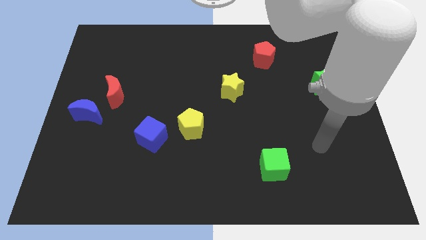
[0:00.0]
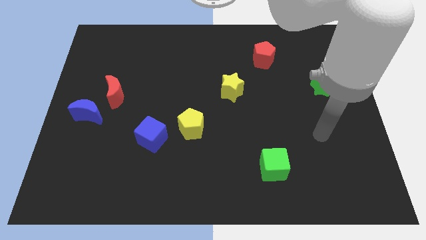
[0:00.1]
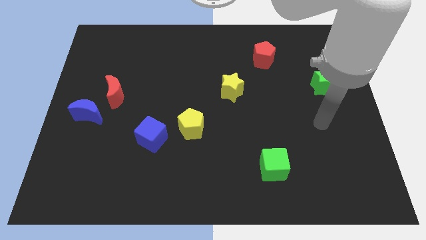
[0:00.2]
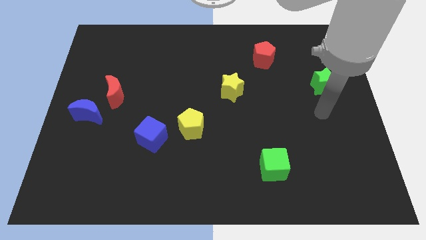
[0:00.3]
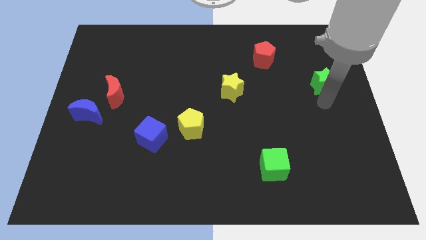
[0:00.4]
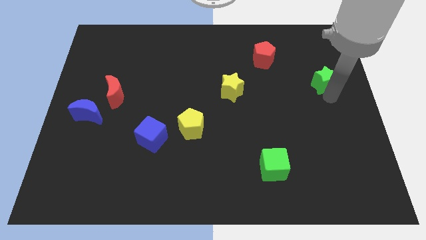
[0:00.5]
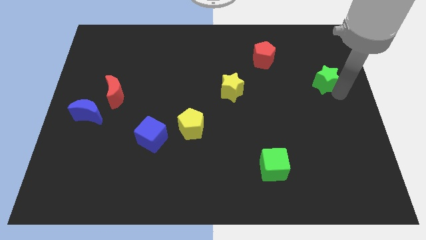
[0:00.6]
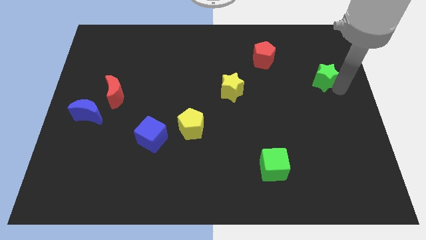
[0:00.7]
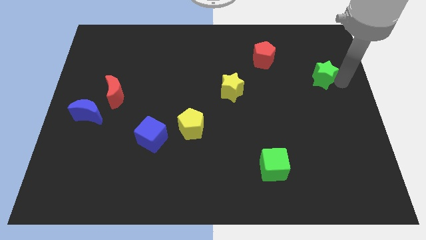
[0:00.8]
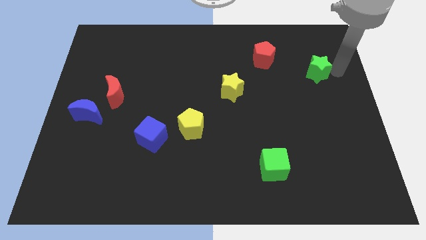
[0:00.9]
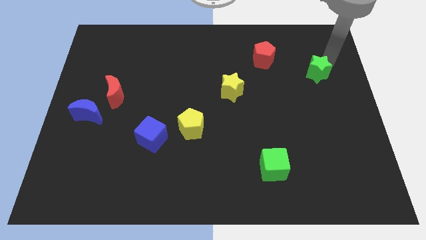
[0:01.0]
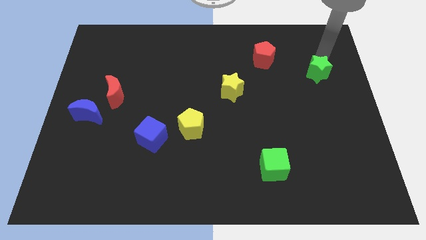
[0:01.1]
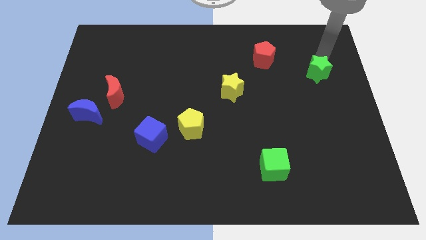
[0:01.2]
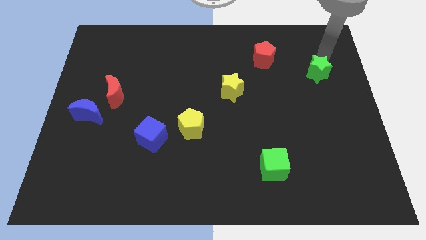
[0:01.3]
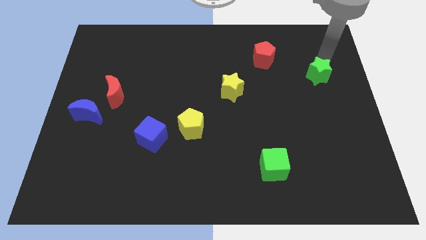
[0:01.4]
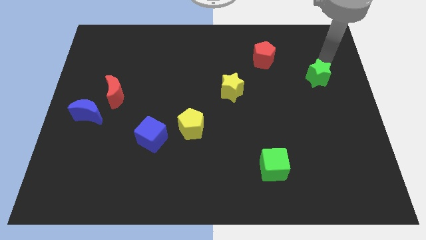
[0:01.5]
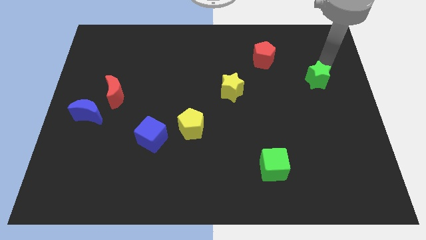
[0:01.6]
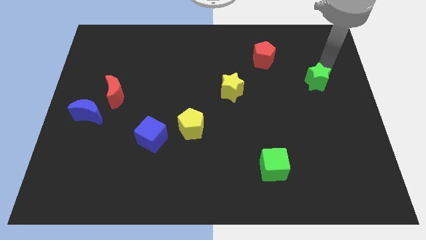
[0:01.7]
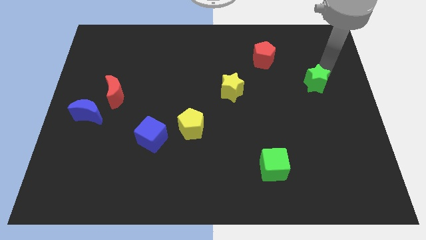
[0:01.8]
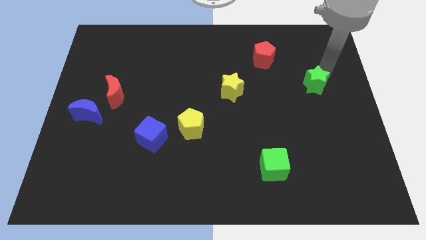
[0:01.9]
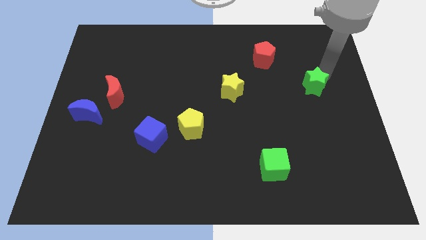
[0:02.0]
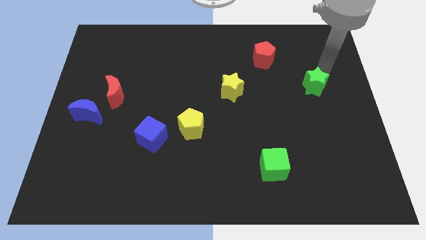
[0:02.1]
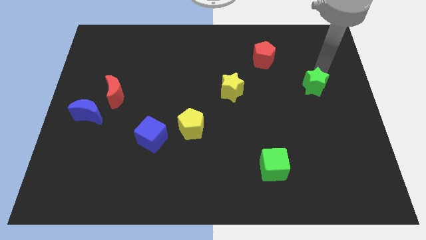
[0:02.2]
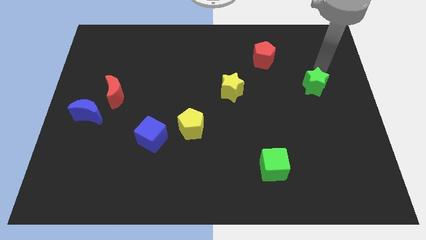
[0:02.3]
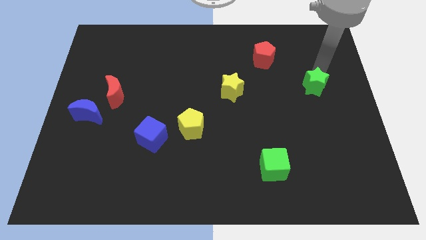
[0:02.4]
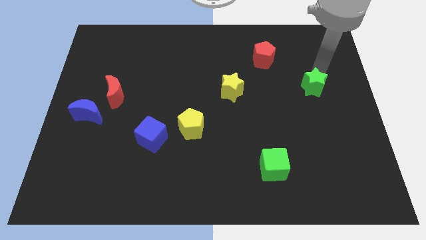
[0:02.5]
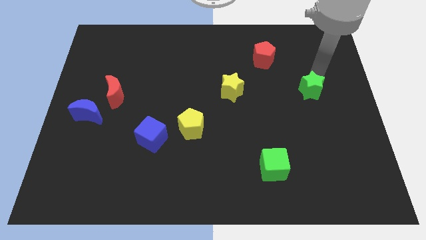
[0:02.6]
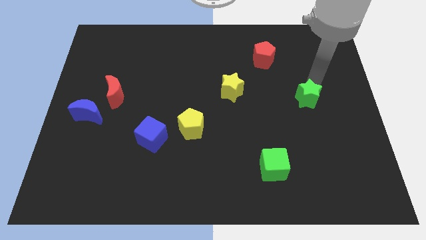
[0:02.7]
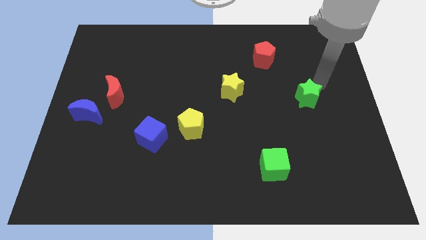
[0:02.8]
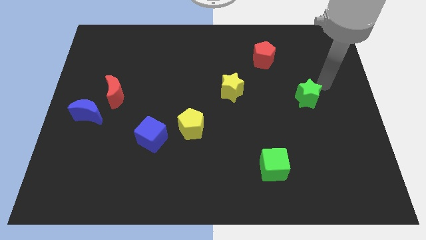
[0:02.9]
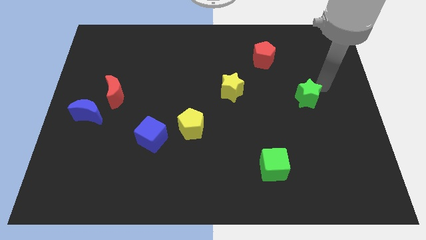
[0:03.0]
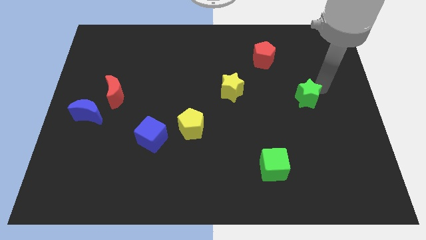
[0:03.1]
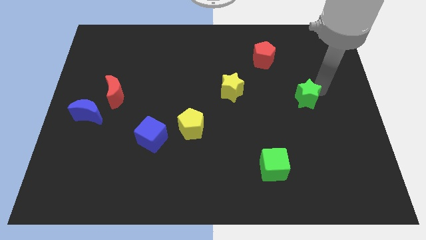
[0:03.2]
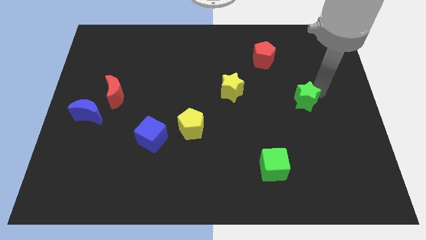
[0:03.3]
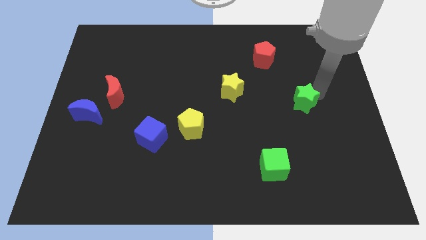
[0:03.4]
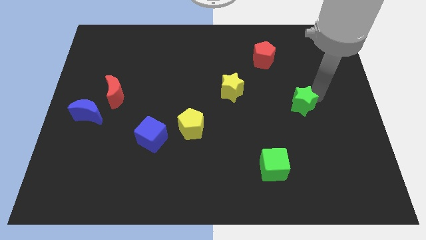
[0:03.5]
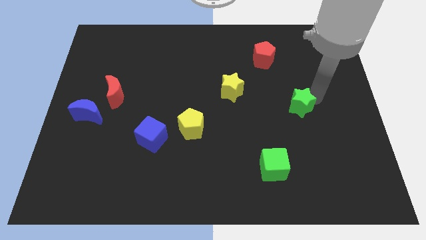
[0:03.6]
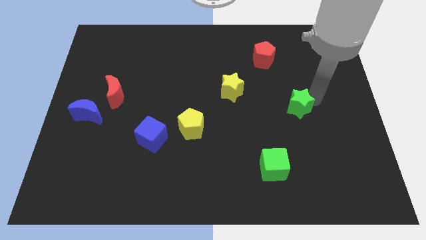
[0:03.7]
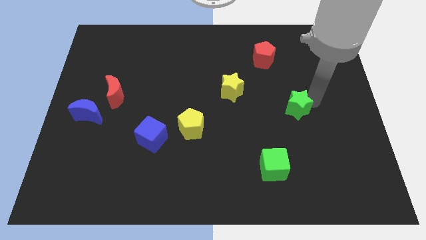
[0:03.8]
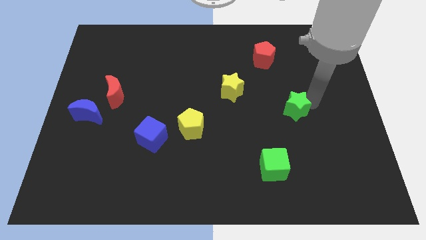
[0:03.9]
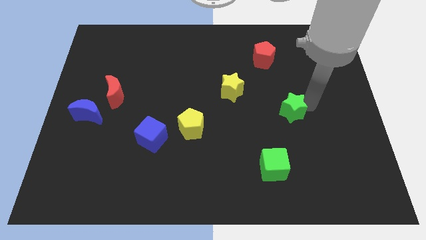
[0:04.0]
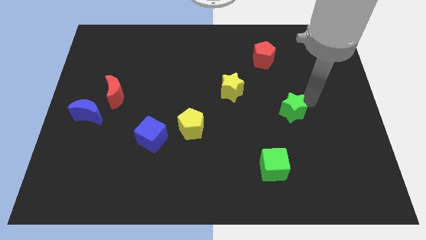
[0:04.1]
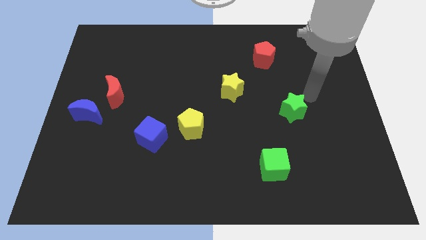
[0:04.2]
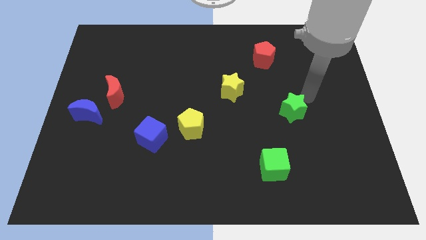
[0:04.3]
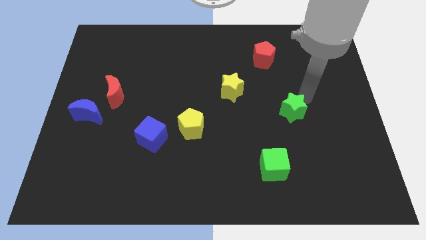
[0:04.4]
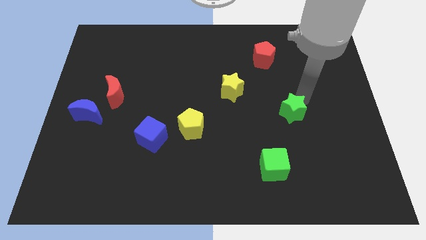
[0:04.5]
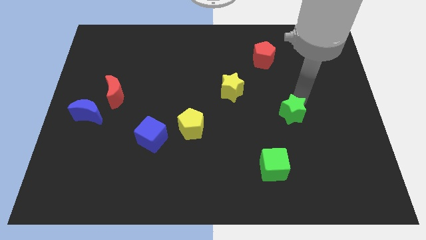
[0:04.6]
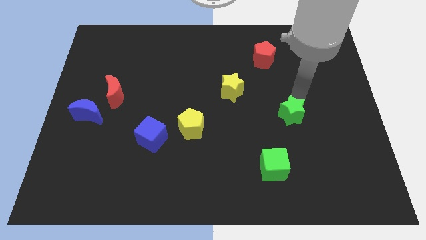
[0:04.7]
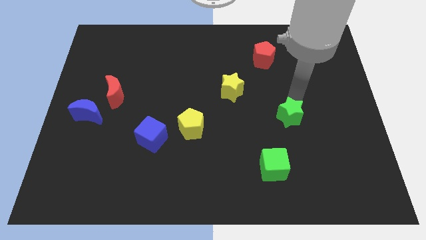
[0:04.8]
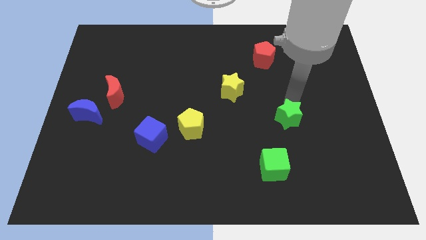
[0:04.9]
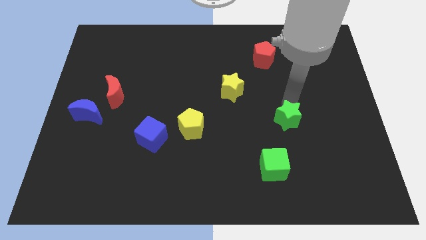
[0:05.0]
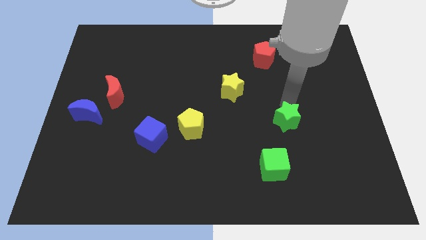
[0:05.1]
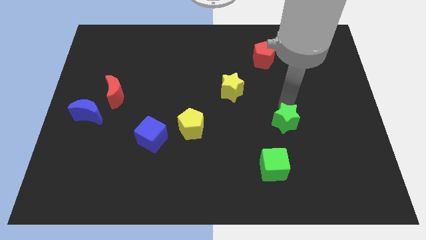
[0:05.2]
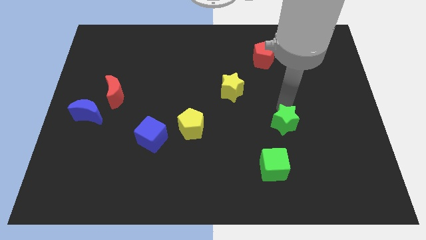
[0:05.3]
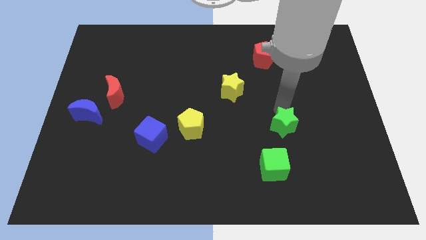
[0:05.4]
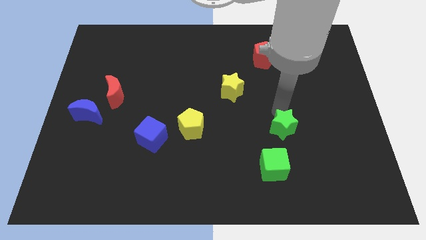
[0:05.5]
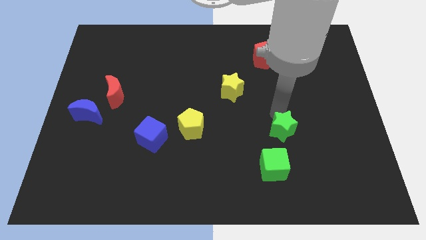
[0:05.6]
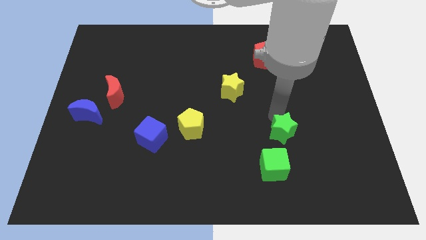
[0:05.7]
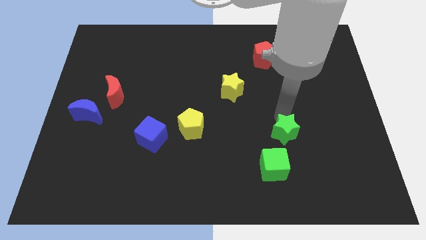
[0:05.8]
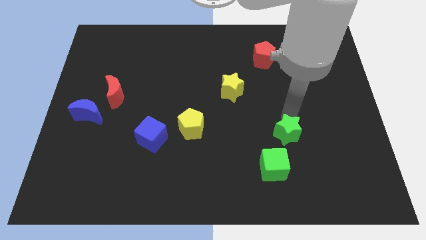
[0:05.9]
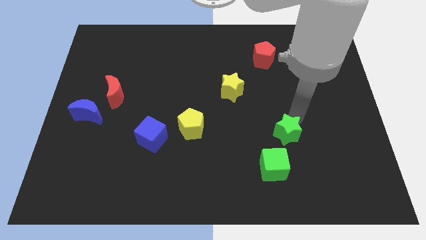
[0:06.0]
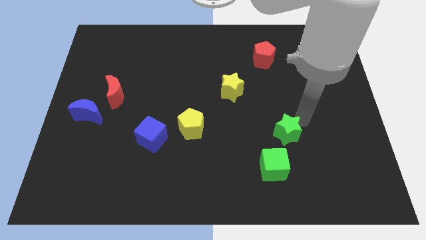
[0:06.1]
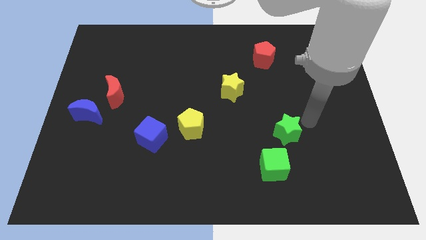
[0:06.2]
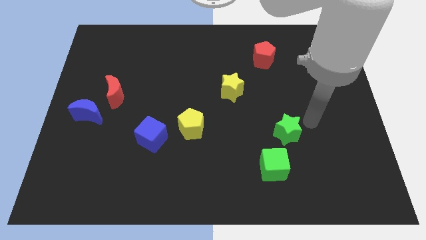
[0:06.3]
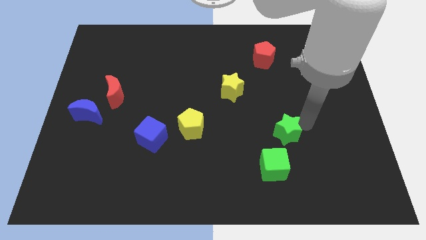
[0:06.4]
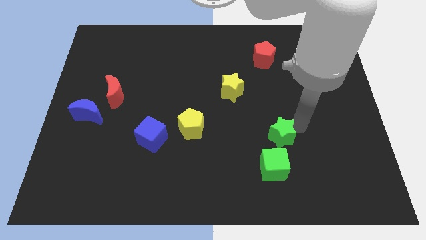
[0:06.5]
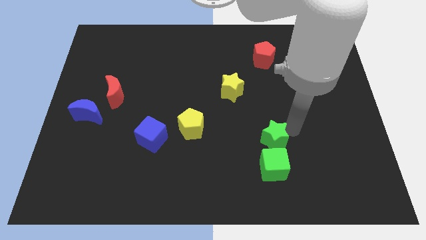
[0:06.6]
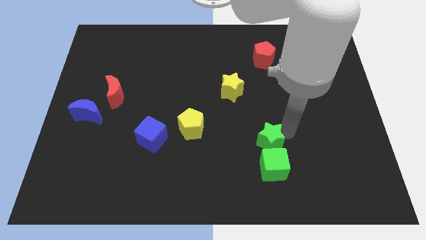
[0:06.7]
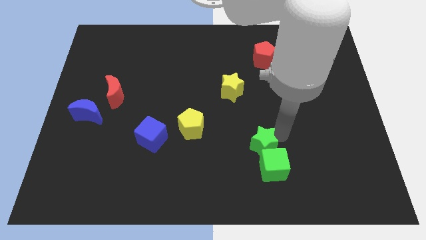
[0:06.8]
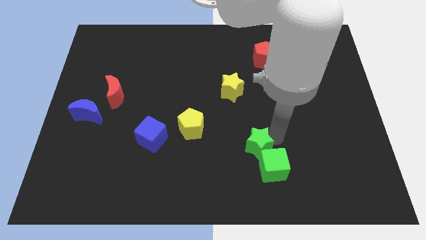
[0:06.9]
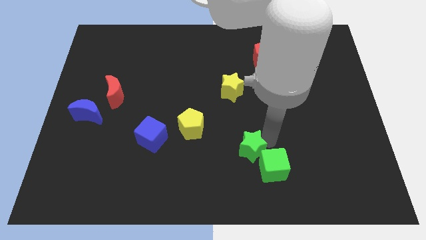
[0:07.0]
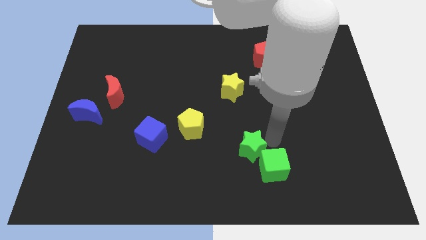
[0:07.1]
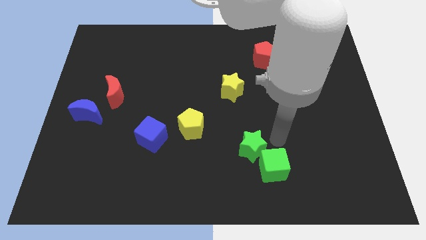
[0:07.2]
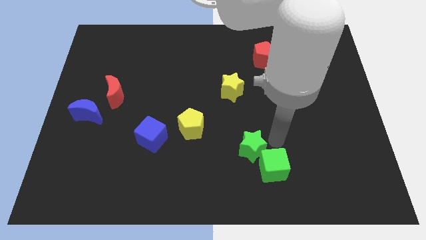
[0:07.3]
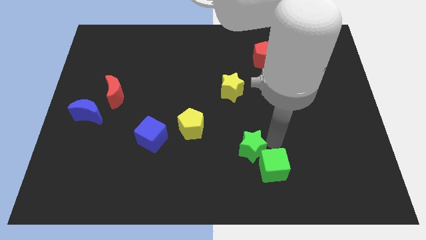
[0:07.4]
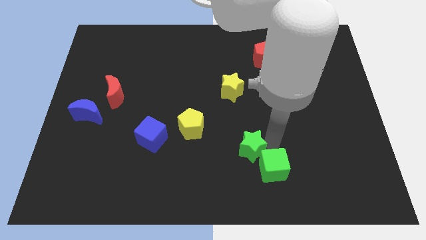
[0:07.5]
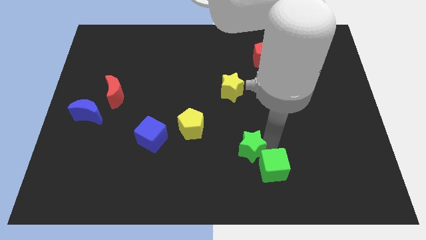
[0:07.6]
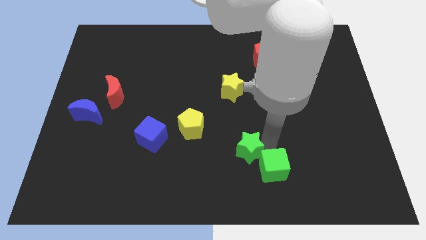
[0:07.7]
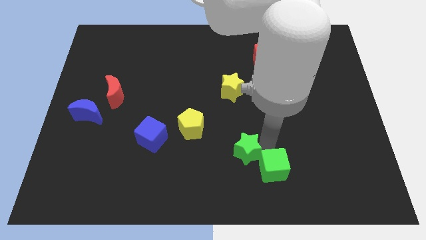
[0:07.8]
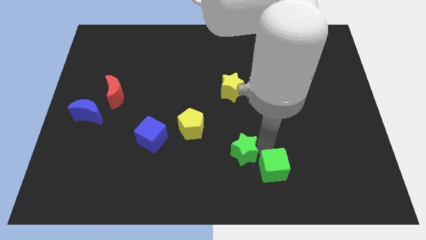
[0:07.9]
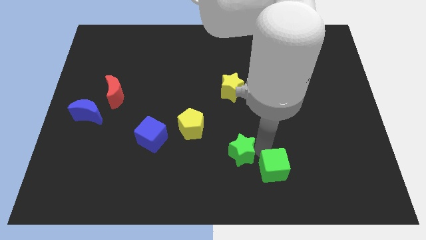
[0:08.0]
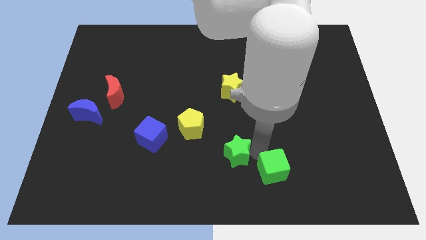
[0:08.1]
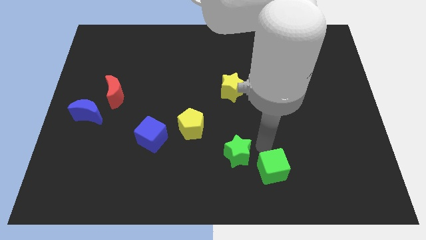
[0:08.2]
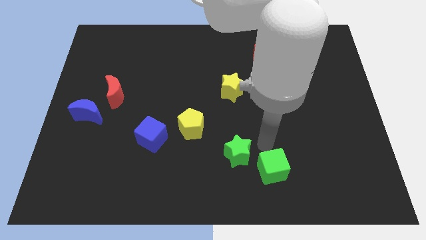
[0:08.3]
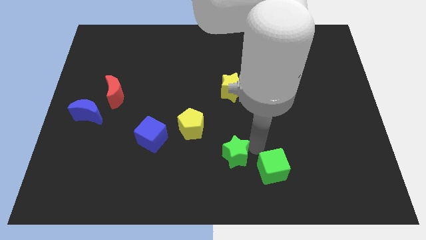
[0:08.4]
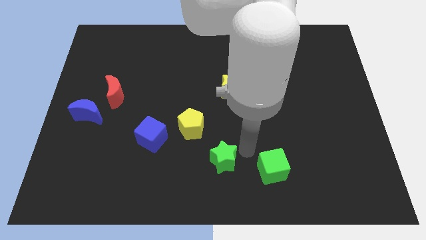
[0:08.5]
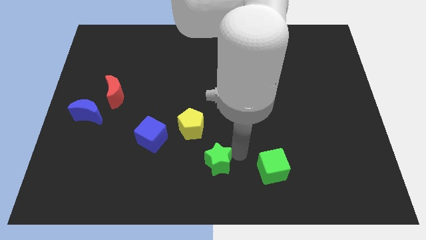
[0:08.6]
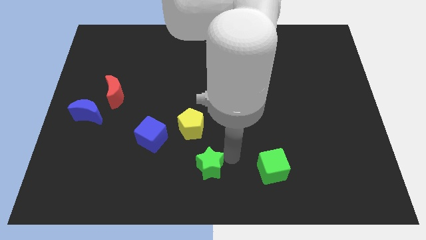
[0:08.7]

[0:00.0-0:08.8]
put the green star to the bottom of the yellow pentagon
